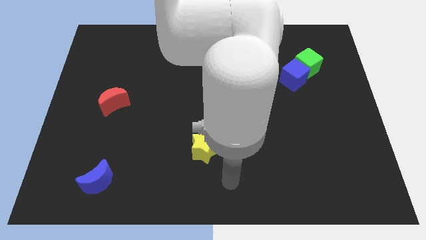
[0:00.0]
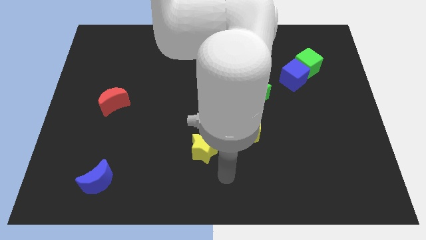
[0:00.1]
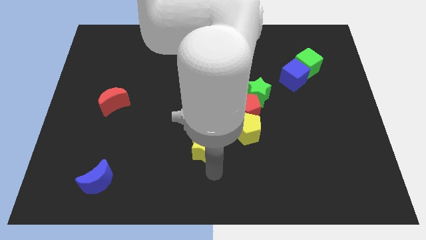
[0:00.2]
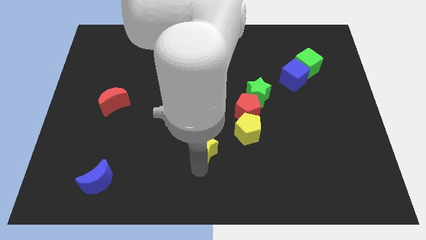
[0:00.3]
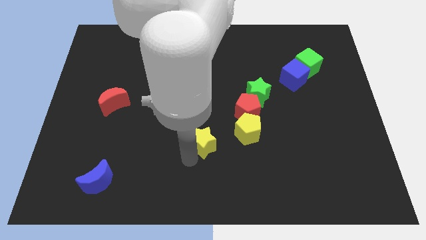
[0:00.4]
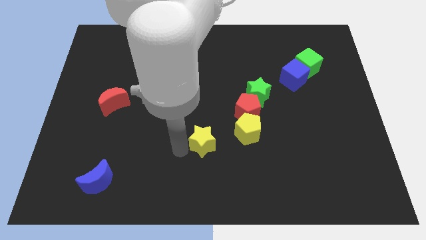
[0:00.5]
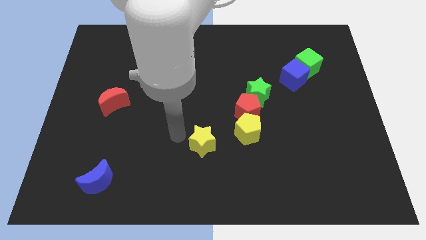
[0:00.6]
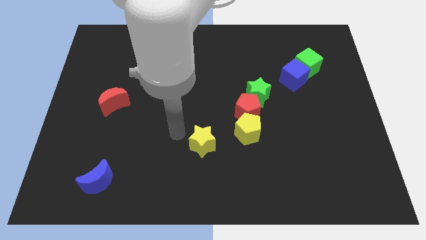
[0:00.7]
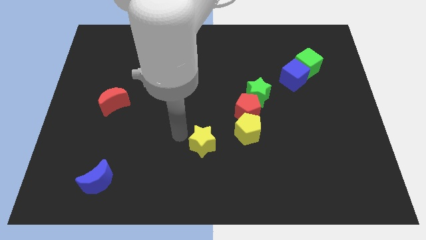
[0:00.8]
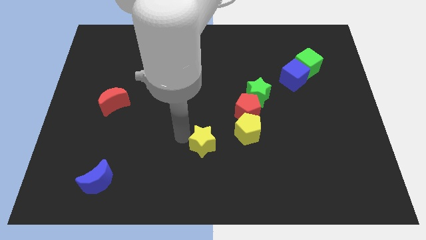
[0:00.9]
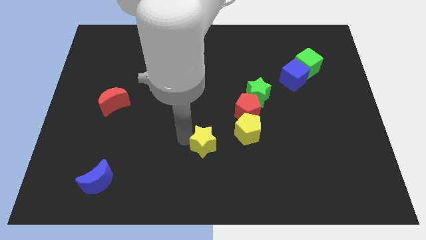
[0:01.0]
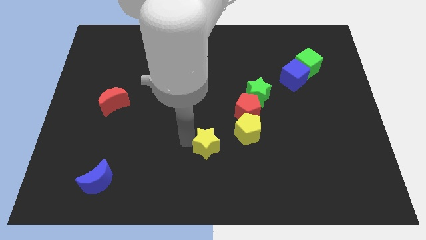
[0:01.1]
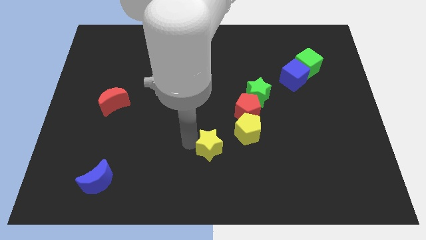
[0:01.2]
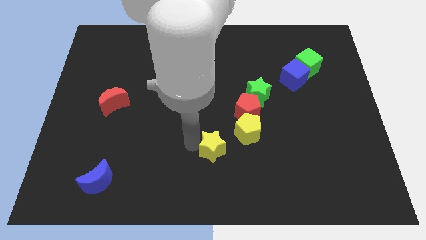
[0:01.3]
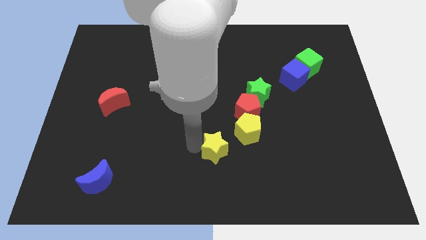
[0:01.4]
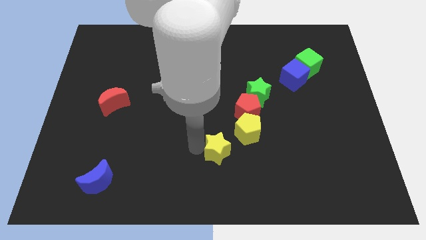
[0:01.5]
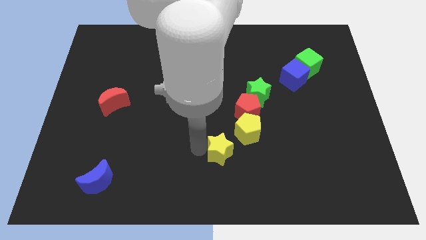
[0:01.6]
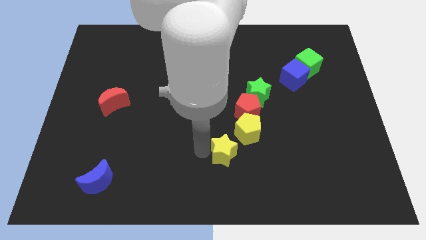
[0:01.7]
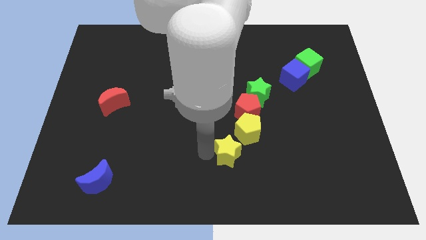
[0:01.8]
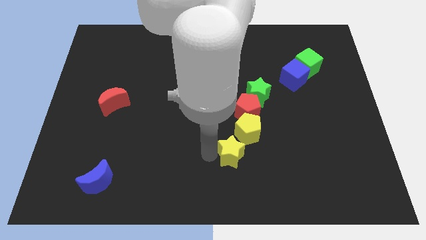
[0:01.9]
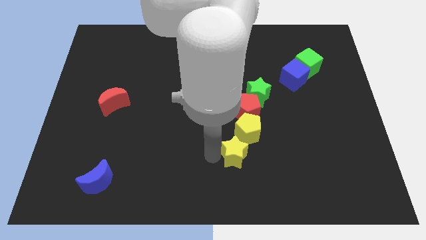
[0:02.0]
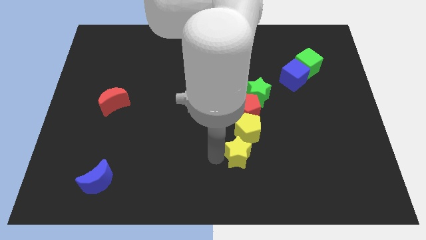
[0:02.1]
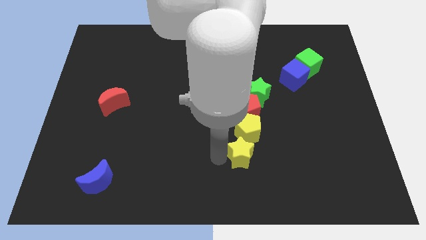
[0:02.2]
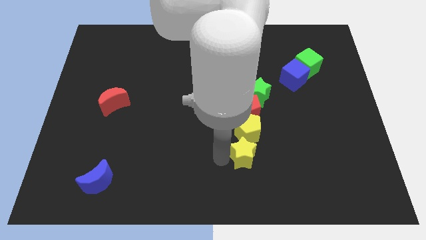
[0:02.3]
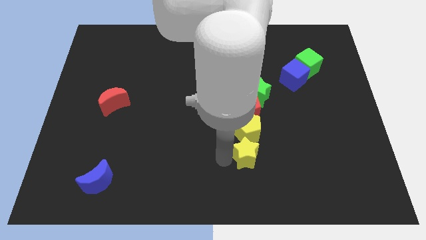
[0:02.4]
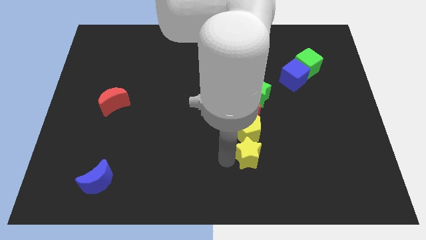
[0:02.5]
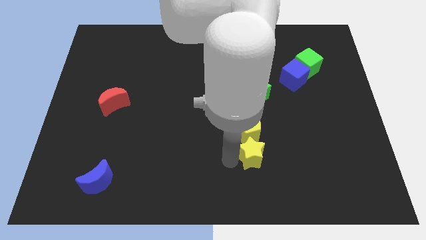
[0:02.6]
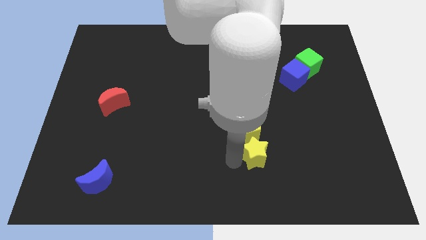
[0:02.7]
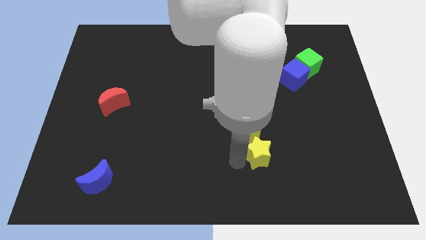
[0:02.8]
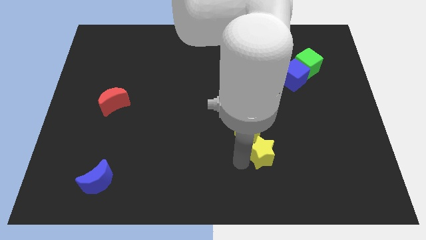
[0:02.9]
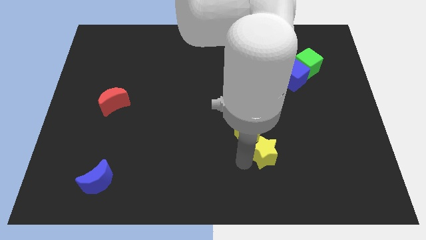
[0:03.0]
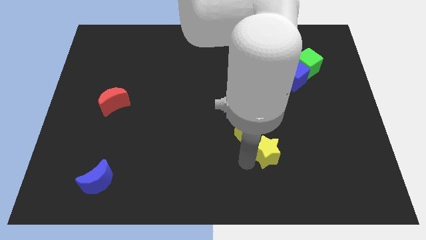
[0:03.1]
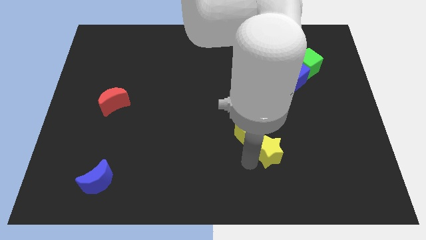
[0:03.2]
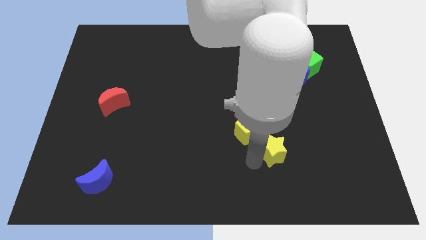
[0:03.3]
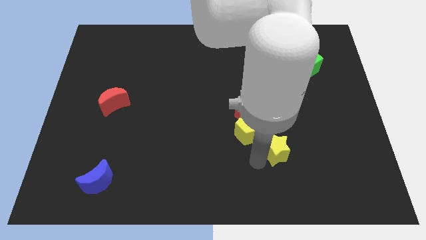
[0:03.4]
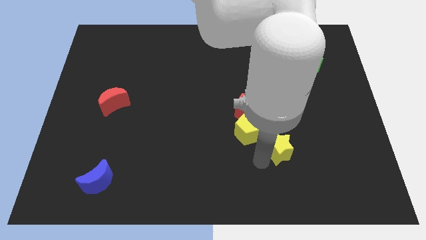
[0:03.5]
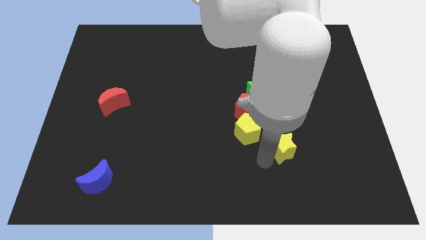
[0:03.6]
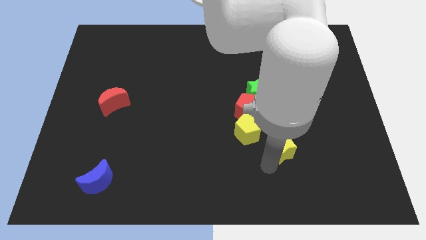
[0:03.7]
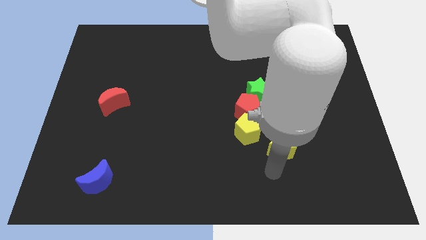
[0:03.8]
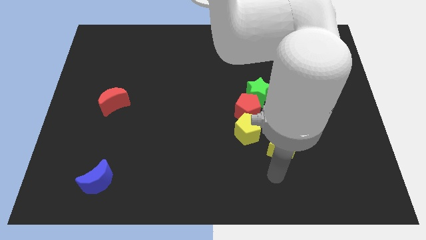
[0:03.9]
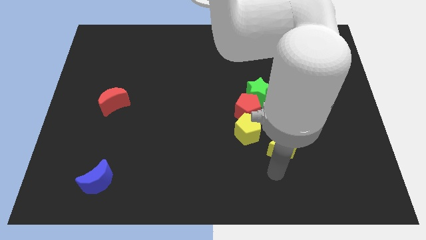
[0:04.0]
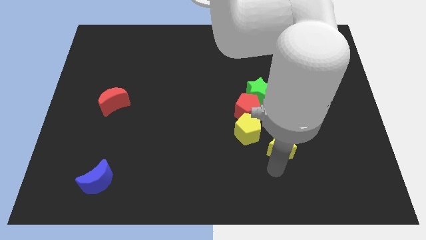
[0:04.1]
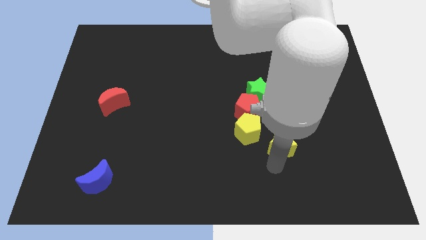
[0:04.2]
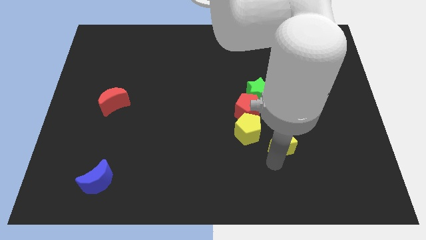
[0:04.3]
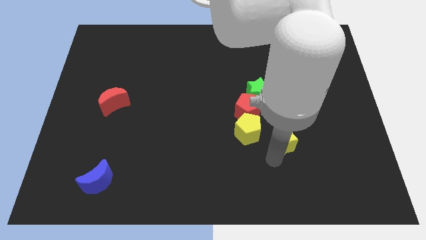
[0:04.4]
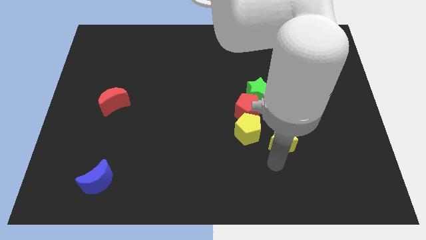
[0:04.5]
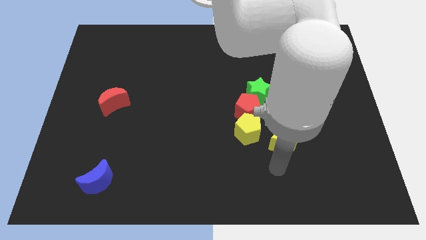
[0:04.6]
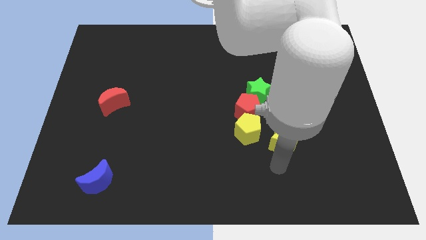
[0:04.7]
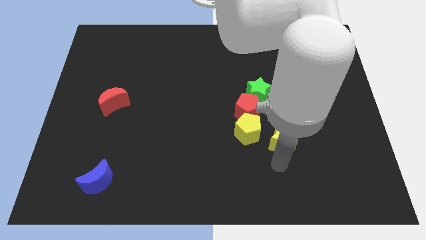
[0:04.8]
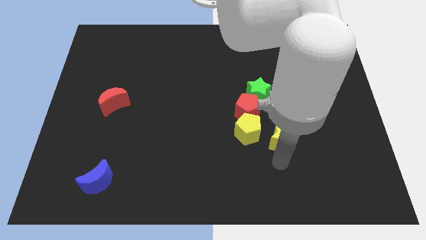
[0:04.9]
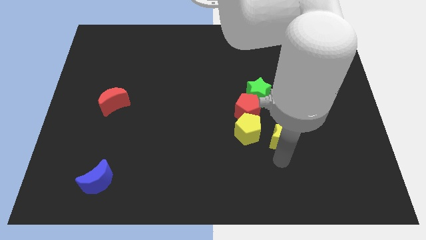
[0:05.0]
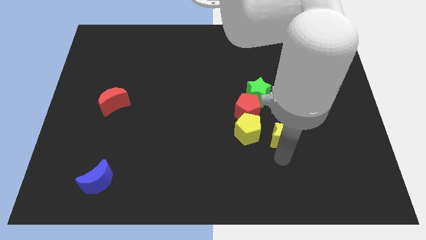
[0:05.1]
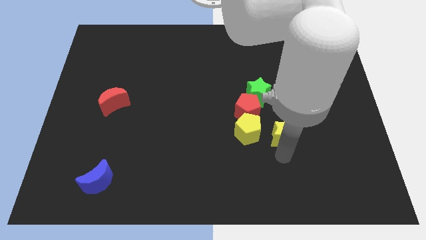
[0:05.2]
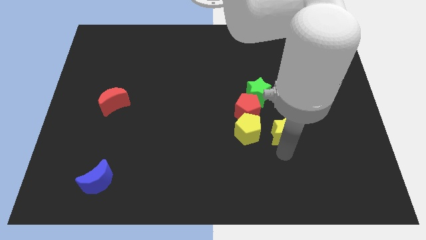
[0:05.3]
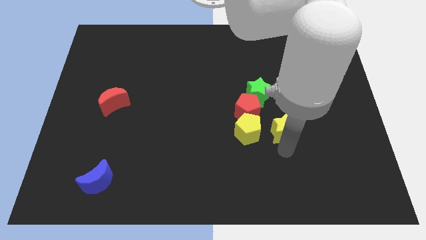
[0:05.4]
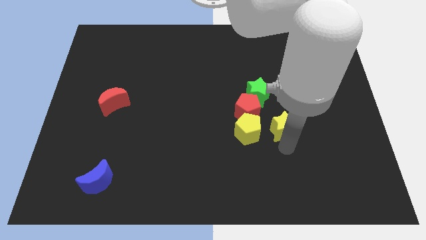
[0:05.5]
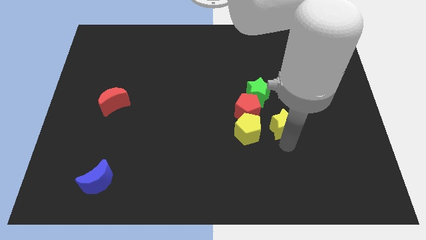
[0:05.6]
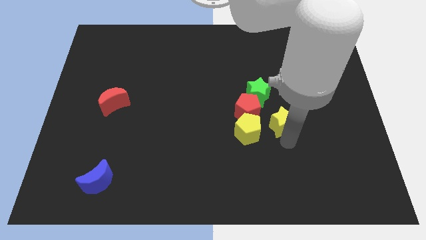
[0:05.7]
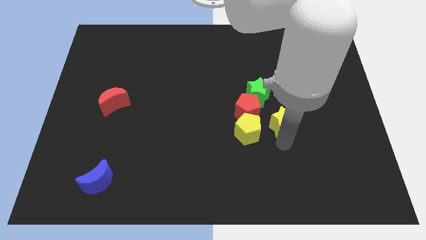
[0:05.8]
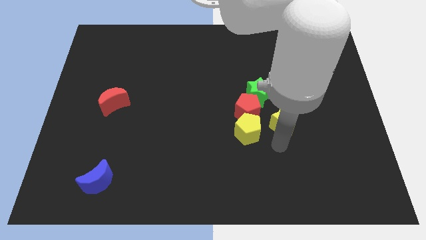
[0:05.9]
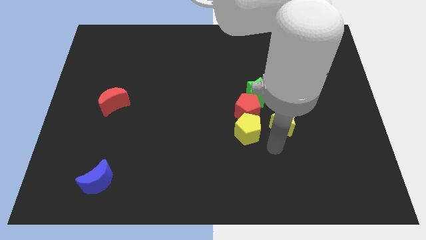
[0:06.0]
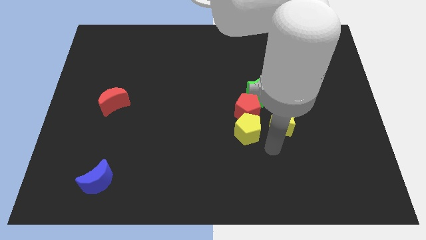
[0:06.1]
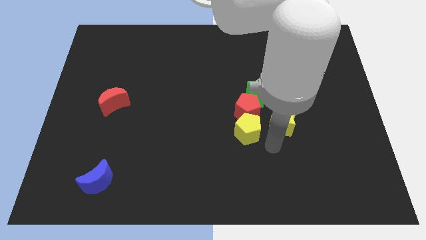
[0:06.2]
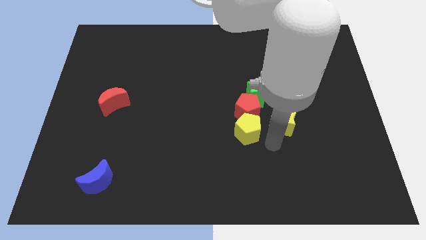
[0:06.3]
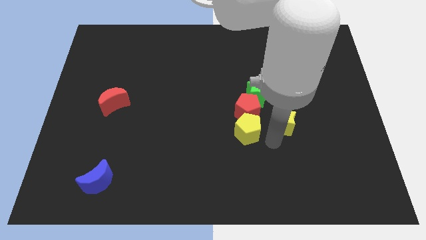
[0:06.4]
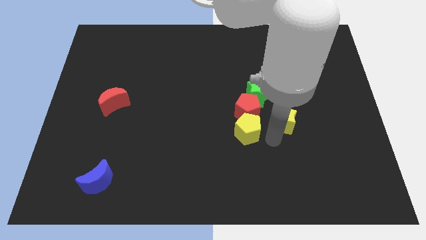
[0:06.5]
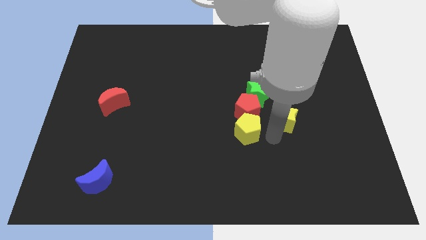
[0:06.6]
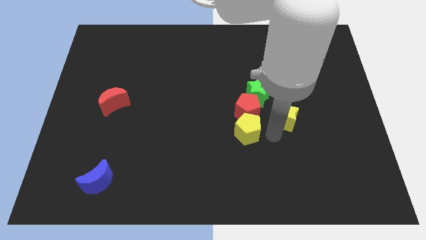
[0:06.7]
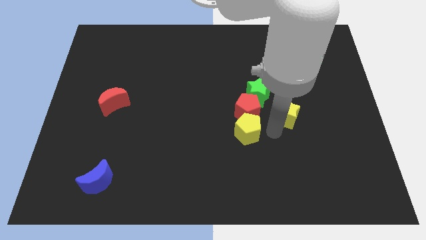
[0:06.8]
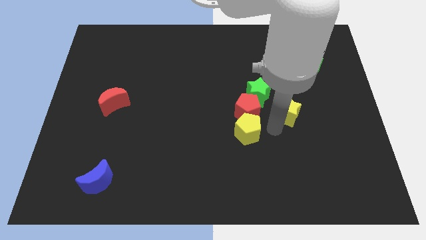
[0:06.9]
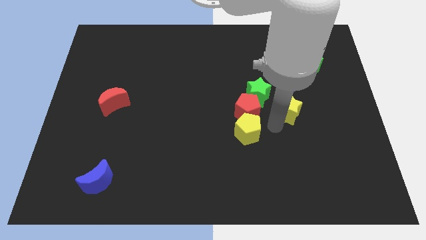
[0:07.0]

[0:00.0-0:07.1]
move the yellow star to the right side of the green star
